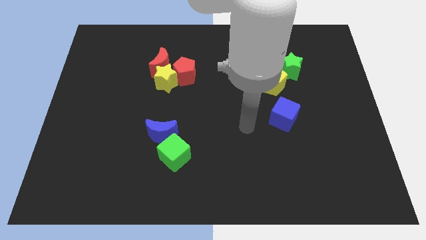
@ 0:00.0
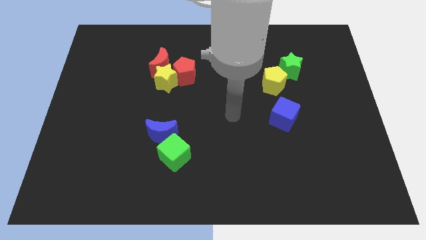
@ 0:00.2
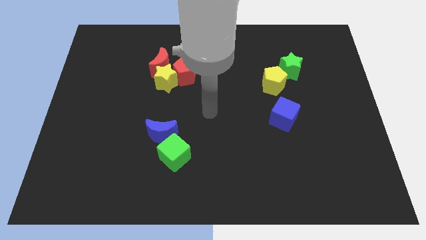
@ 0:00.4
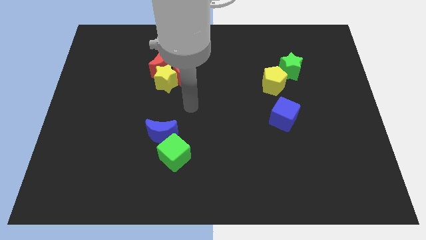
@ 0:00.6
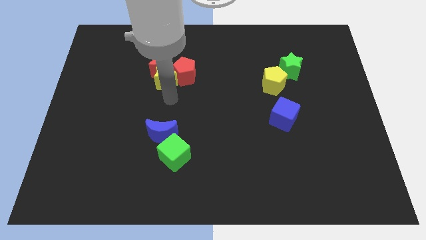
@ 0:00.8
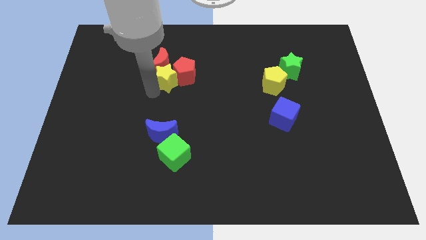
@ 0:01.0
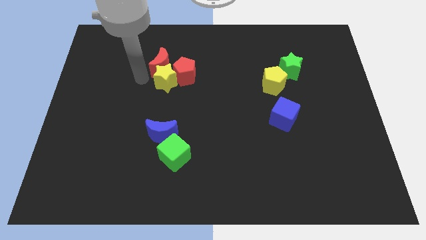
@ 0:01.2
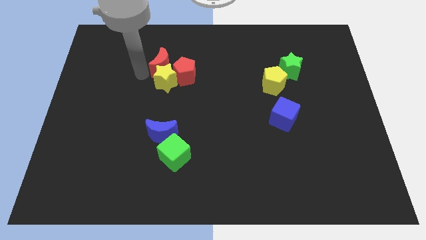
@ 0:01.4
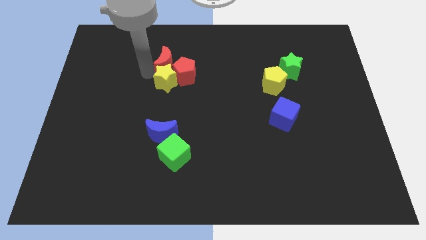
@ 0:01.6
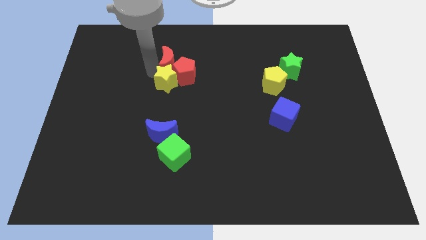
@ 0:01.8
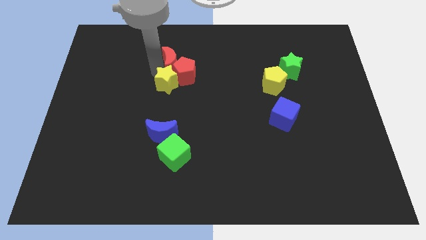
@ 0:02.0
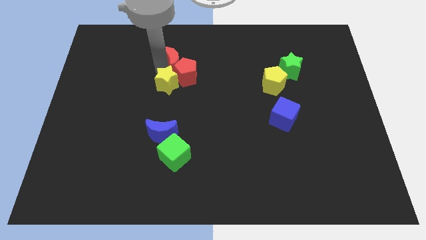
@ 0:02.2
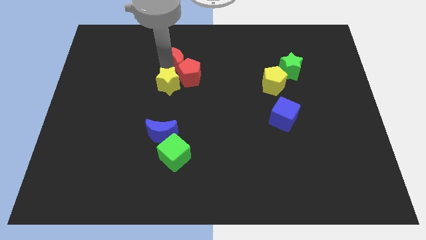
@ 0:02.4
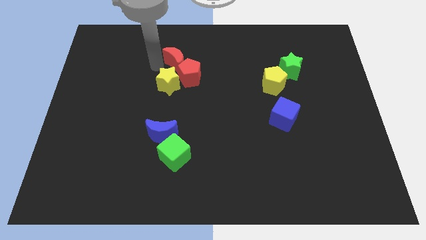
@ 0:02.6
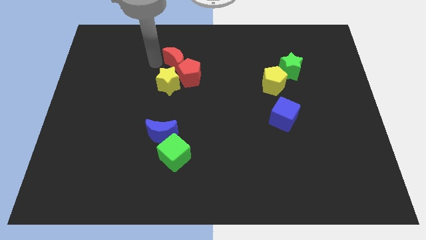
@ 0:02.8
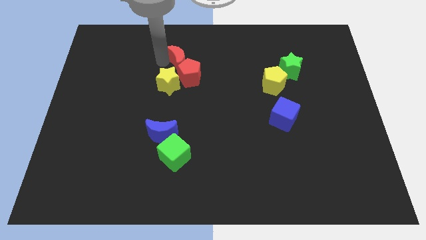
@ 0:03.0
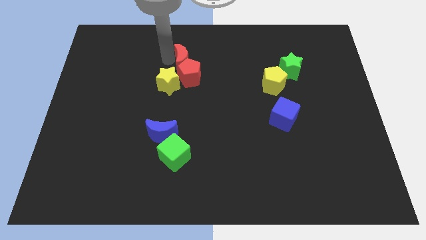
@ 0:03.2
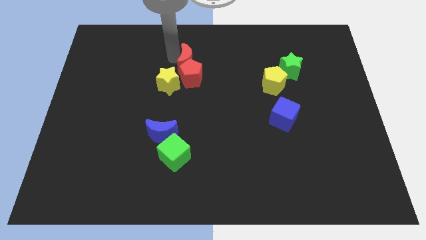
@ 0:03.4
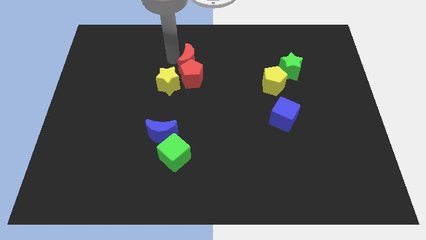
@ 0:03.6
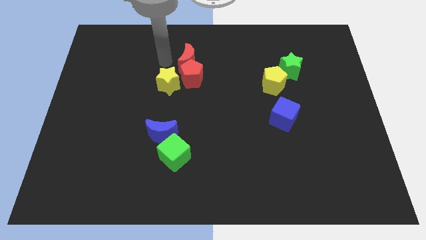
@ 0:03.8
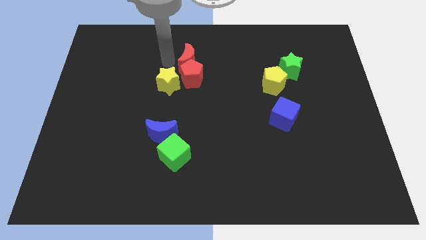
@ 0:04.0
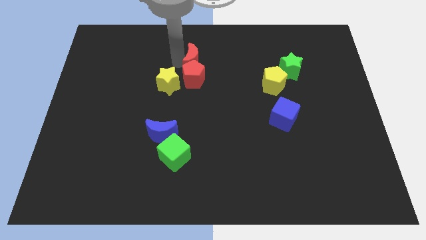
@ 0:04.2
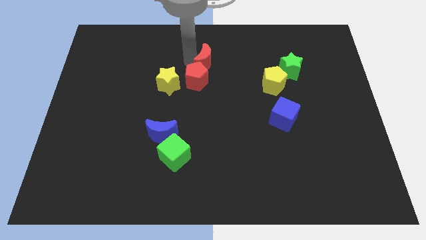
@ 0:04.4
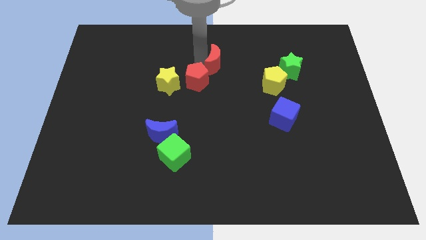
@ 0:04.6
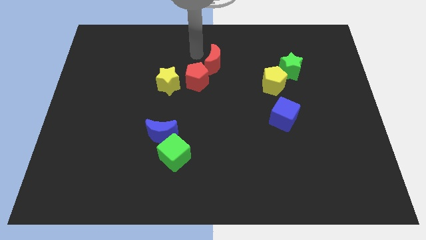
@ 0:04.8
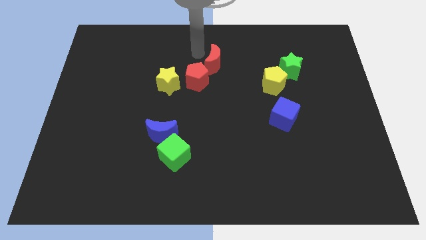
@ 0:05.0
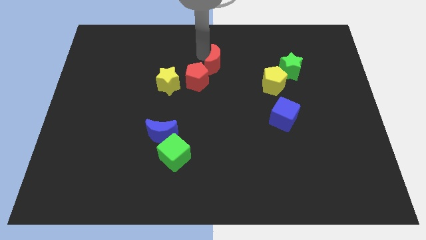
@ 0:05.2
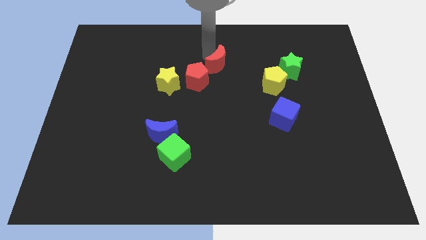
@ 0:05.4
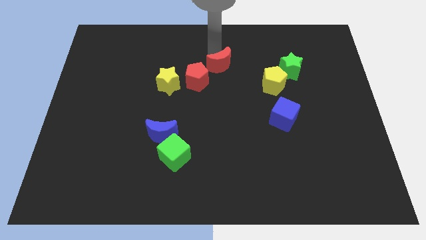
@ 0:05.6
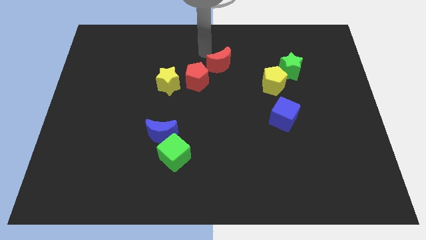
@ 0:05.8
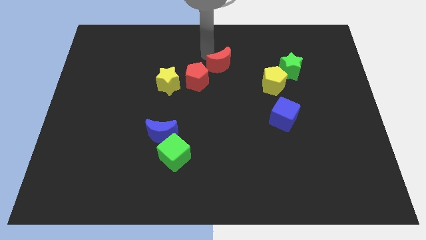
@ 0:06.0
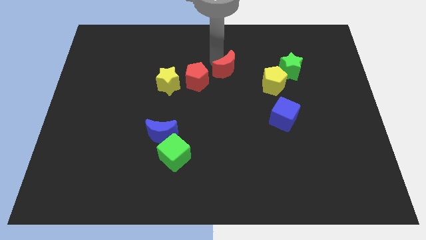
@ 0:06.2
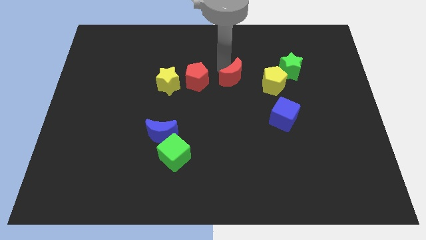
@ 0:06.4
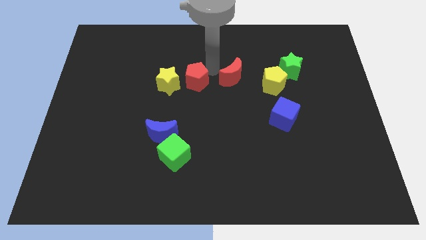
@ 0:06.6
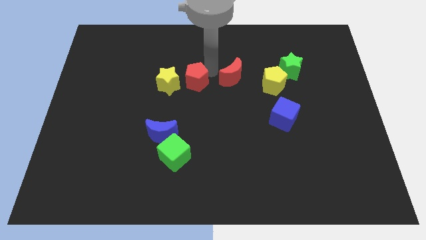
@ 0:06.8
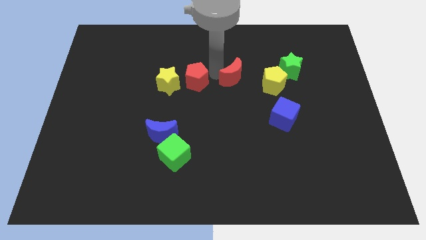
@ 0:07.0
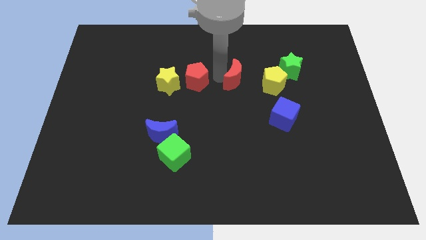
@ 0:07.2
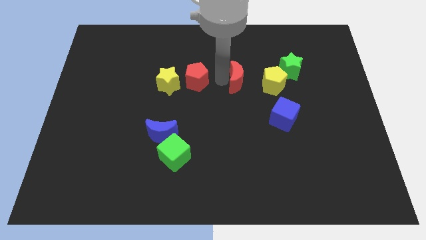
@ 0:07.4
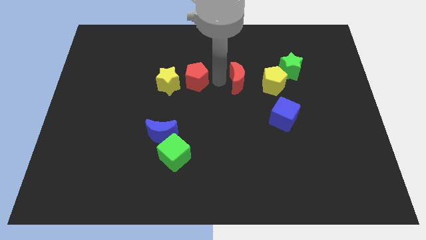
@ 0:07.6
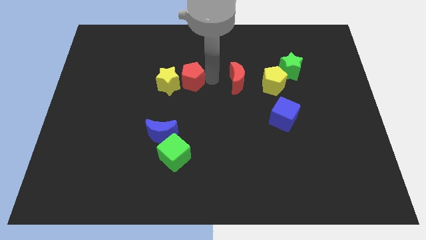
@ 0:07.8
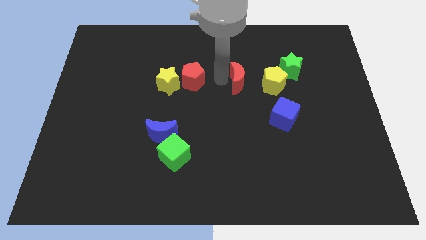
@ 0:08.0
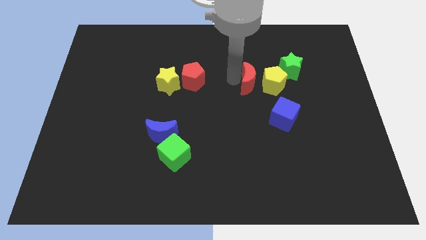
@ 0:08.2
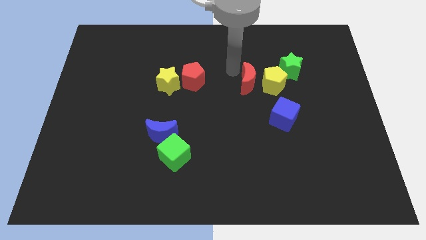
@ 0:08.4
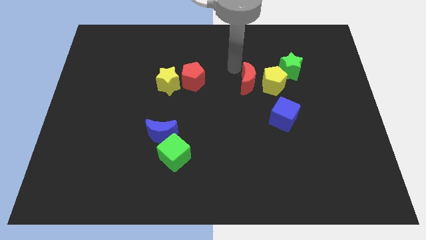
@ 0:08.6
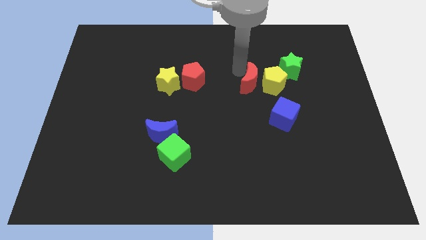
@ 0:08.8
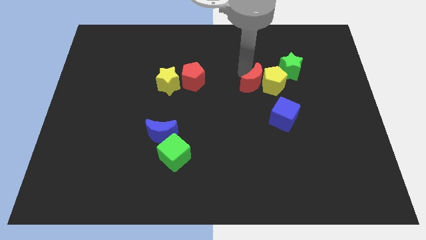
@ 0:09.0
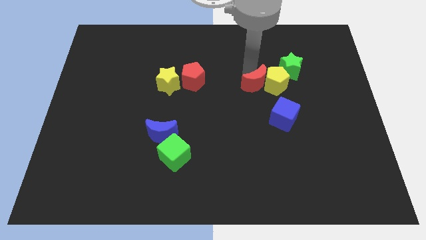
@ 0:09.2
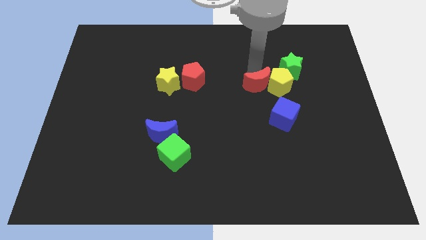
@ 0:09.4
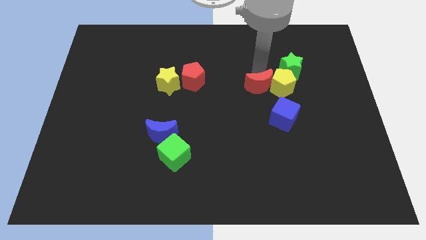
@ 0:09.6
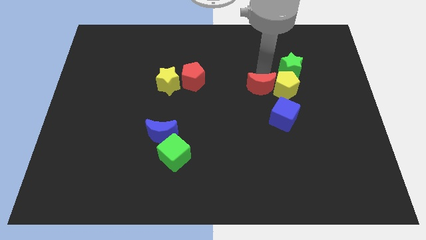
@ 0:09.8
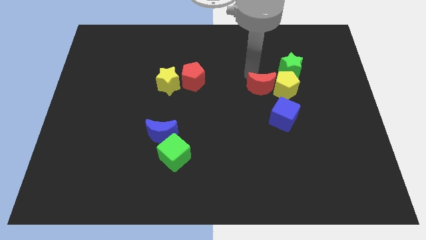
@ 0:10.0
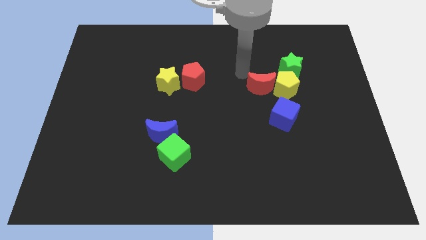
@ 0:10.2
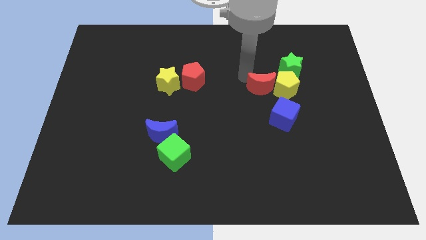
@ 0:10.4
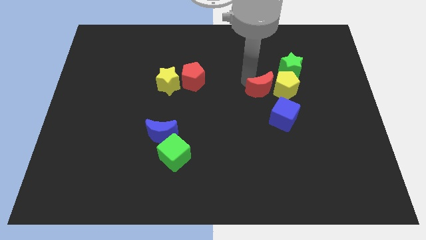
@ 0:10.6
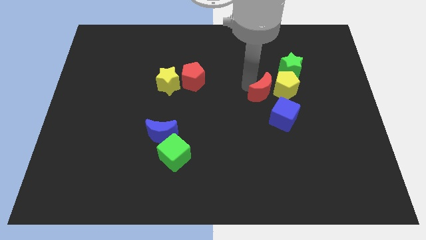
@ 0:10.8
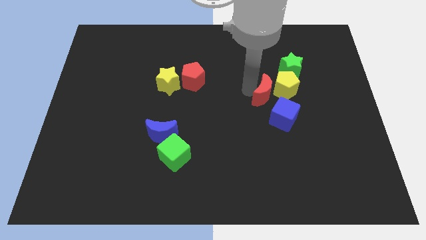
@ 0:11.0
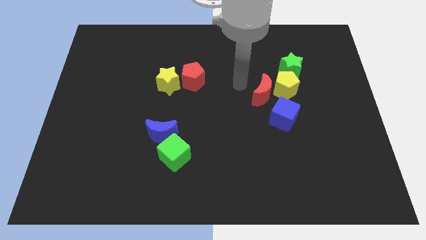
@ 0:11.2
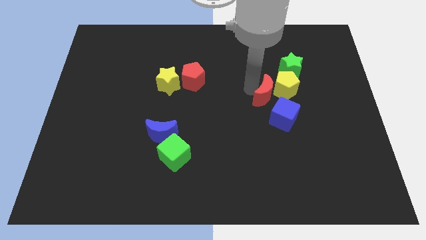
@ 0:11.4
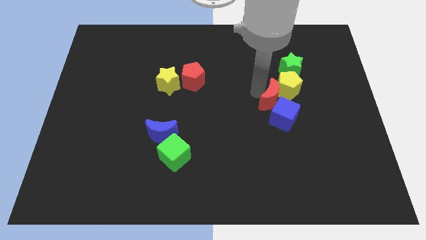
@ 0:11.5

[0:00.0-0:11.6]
move the red moon next to the blue cube

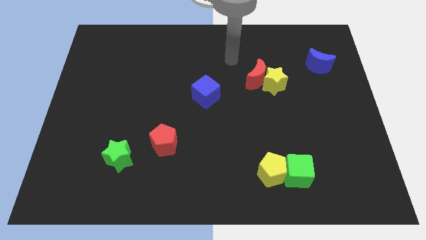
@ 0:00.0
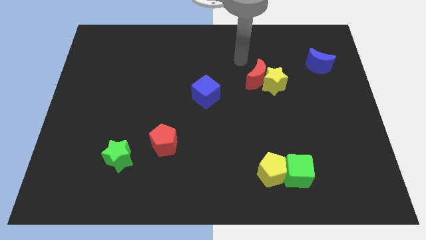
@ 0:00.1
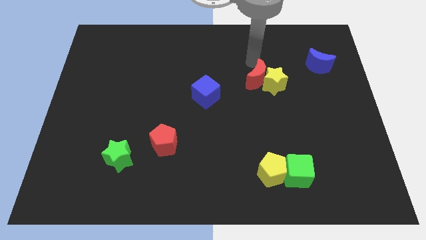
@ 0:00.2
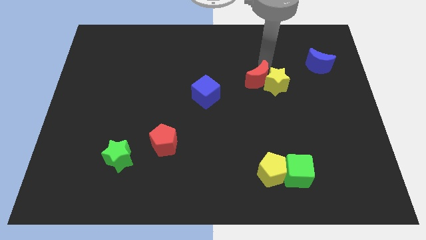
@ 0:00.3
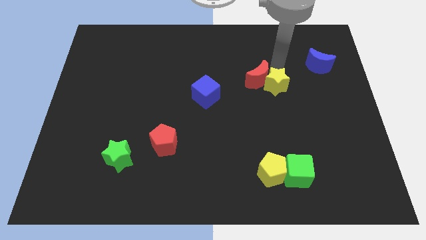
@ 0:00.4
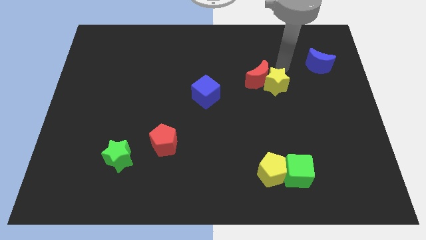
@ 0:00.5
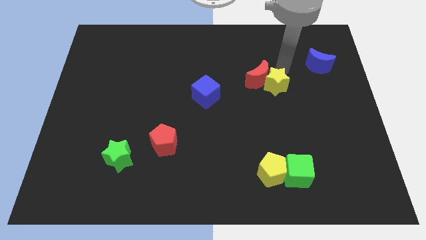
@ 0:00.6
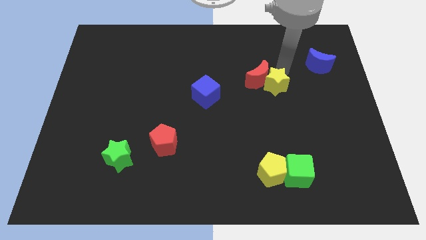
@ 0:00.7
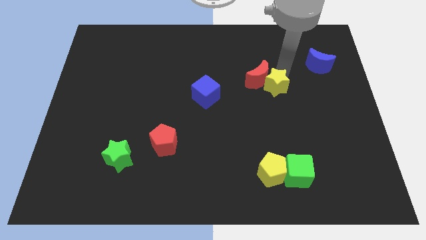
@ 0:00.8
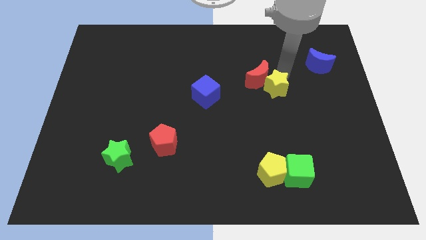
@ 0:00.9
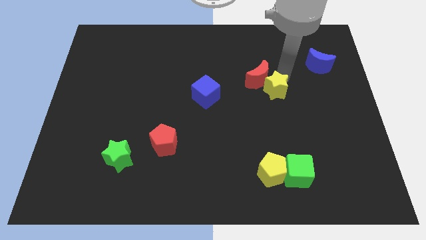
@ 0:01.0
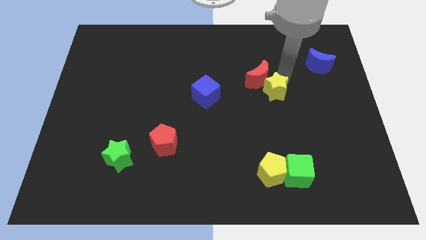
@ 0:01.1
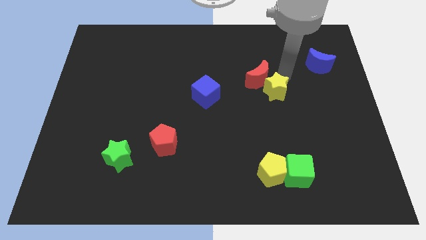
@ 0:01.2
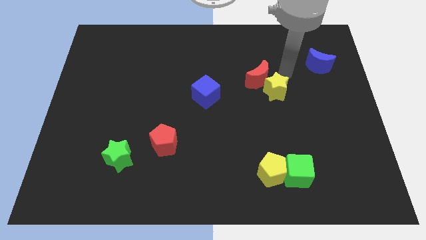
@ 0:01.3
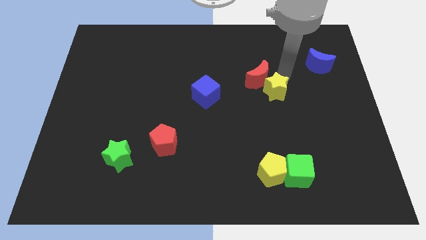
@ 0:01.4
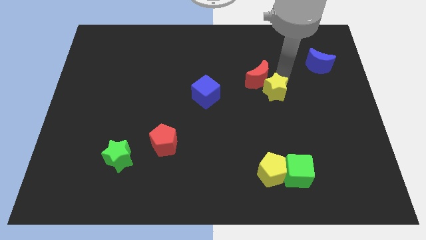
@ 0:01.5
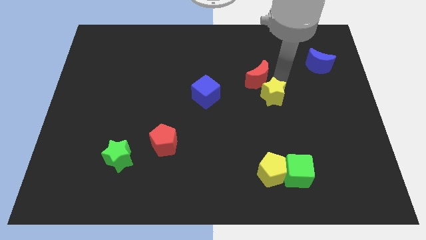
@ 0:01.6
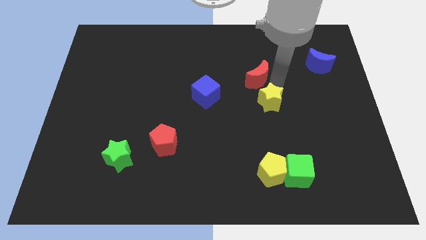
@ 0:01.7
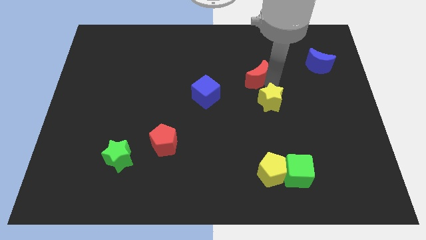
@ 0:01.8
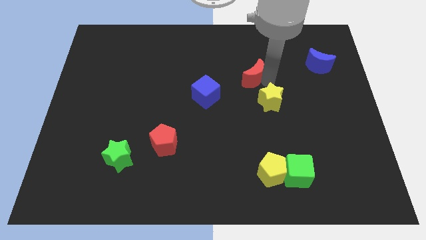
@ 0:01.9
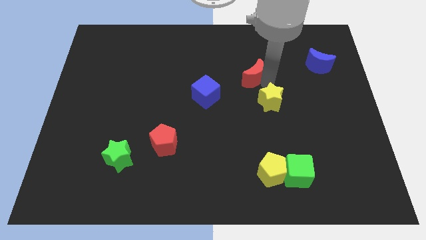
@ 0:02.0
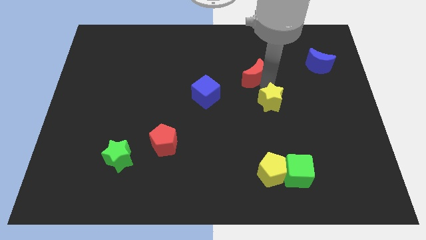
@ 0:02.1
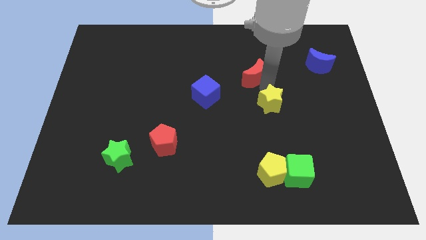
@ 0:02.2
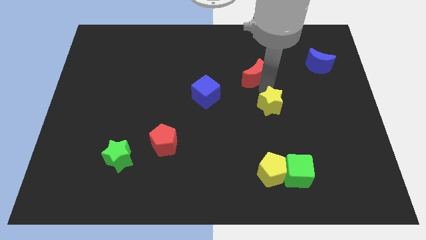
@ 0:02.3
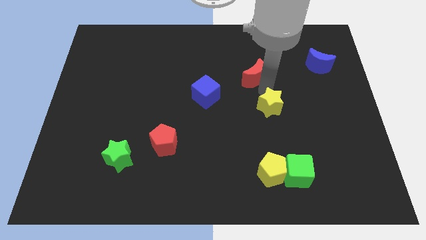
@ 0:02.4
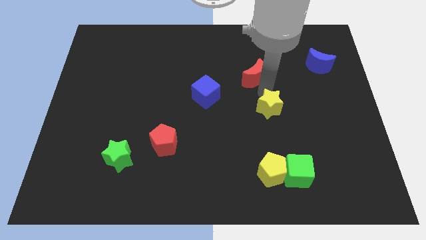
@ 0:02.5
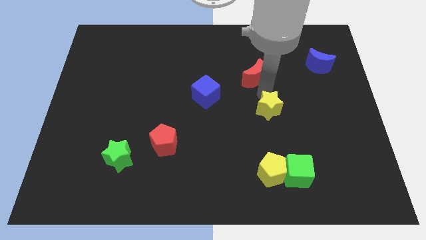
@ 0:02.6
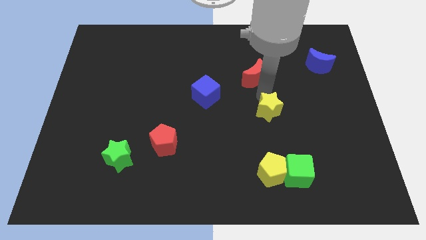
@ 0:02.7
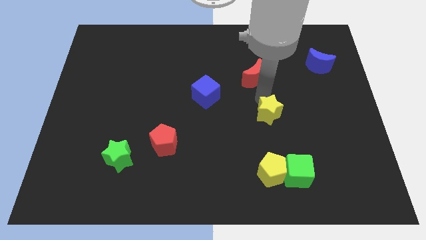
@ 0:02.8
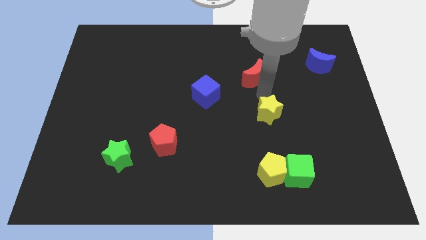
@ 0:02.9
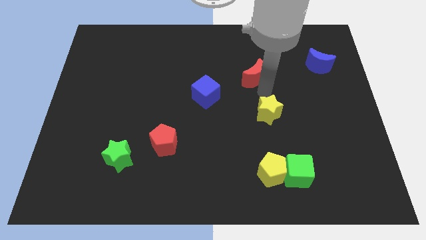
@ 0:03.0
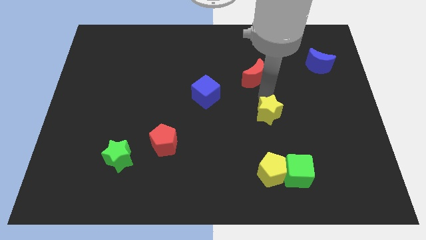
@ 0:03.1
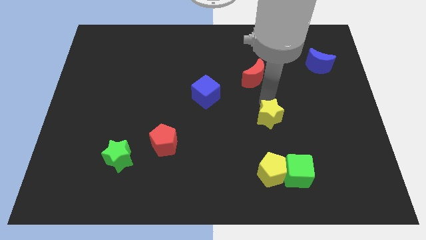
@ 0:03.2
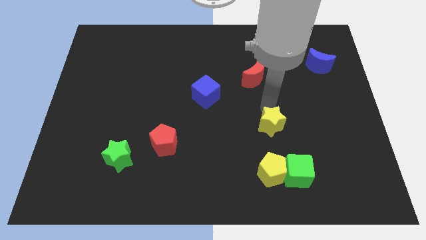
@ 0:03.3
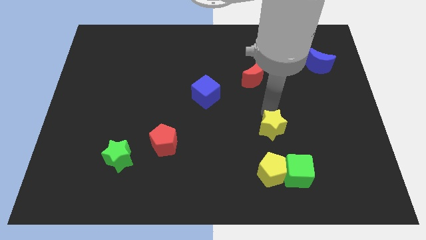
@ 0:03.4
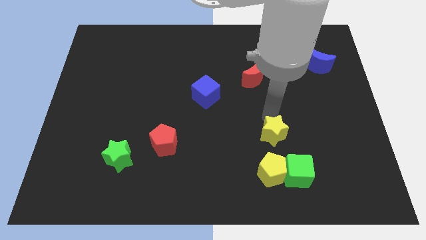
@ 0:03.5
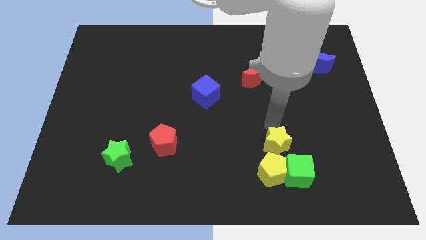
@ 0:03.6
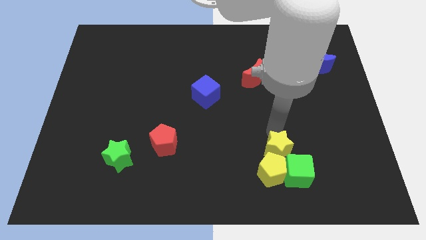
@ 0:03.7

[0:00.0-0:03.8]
push the yellow star towards the yellow pentagon
